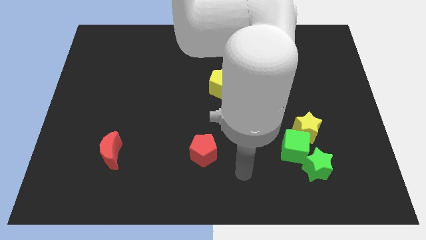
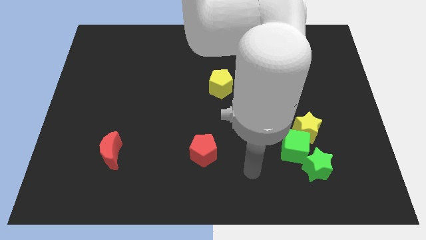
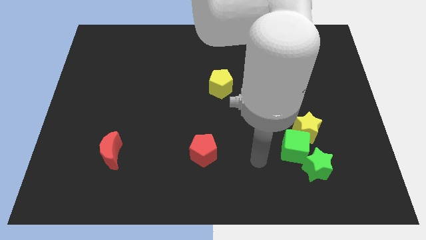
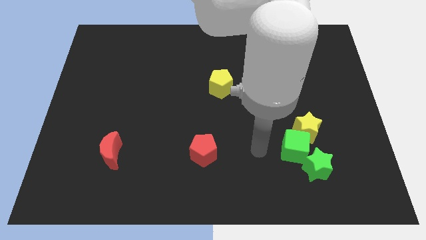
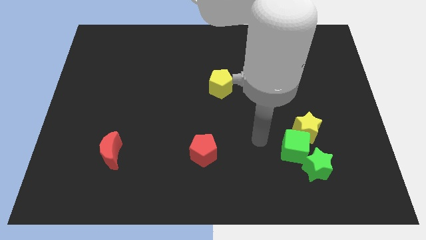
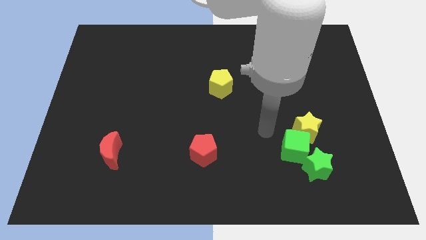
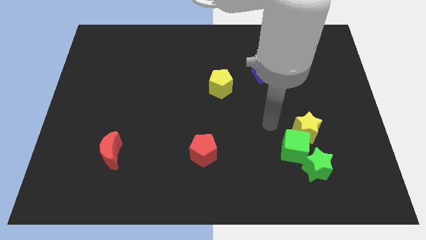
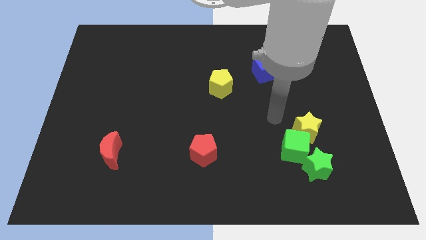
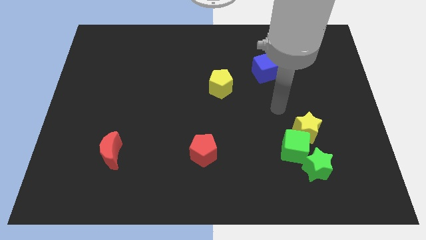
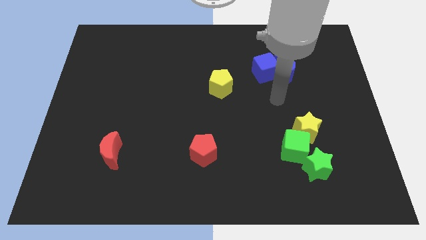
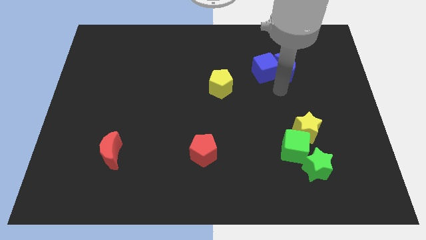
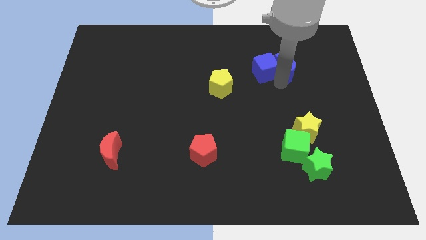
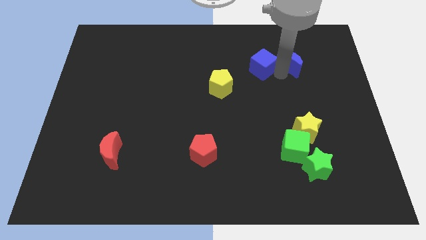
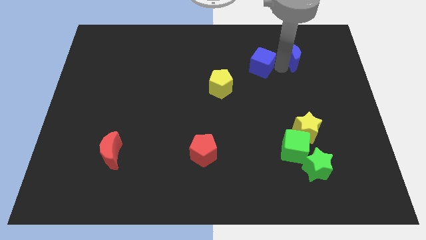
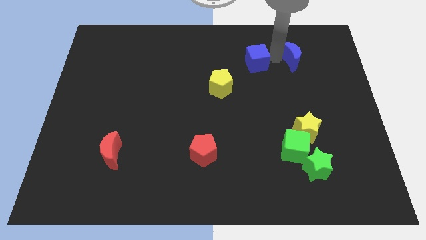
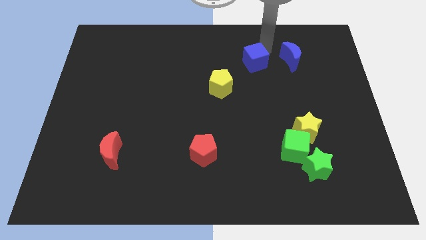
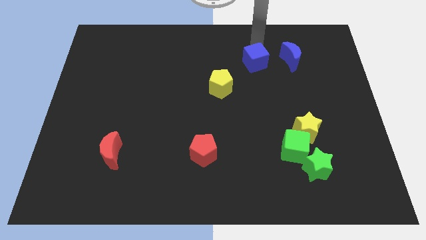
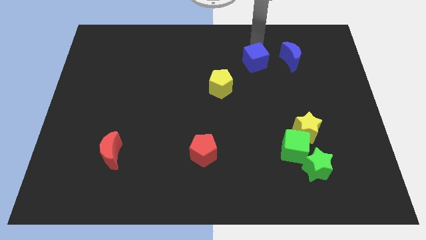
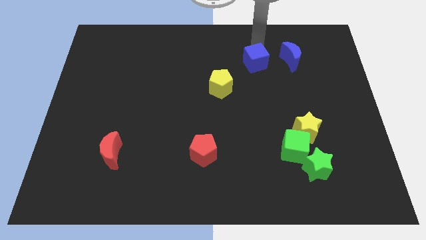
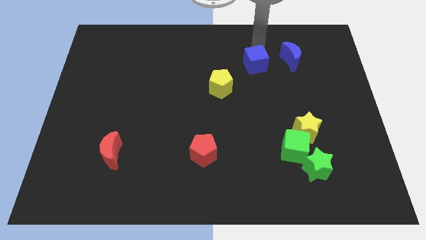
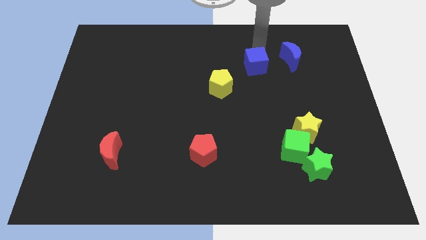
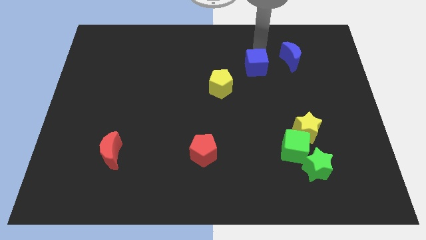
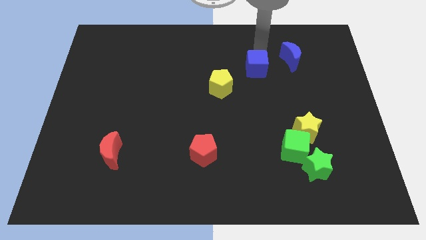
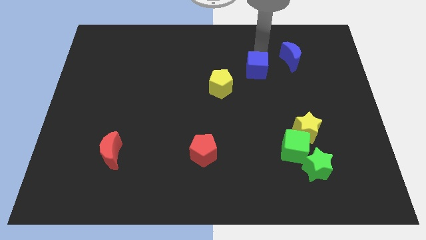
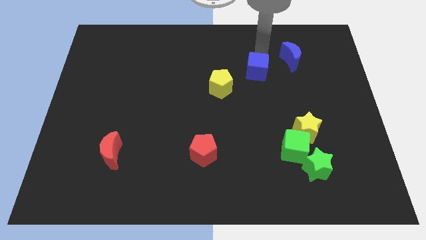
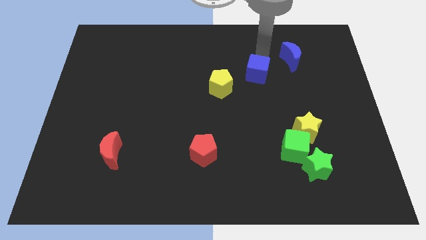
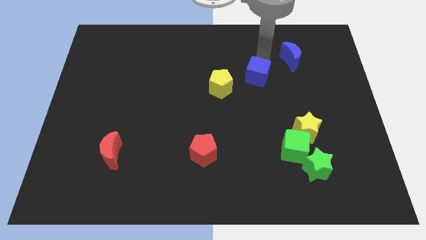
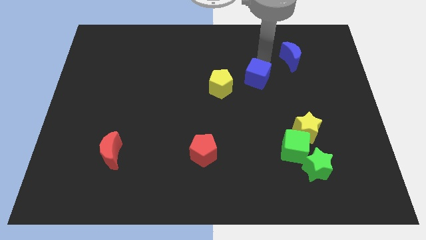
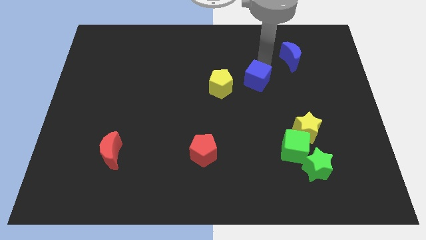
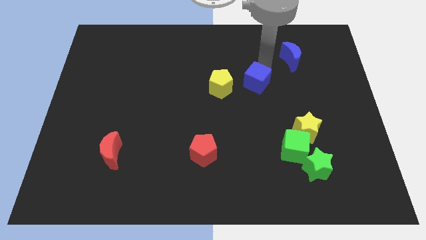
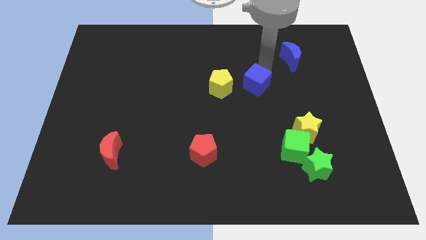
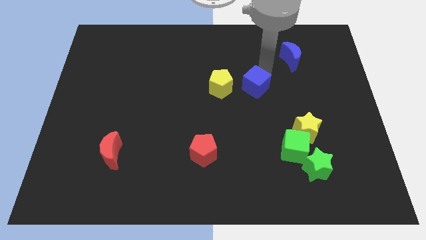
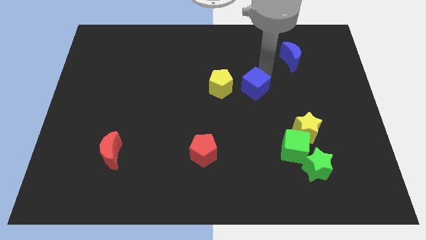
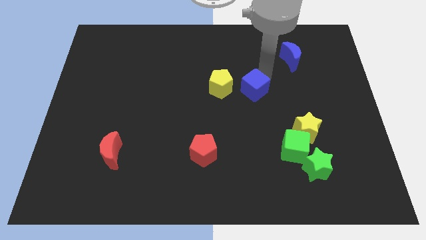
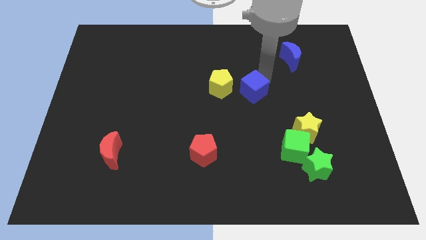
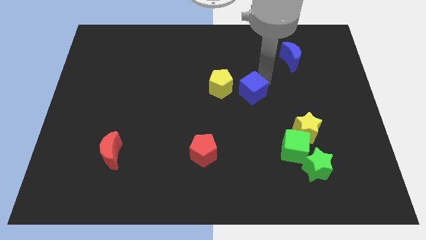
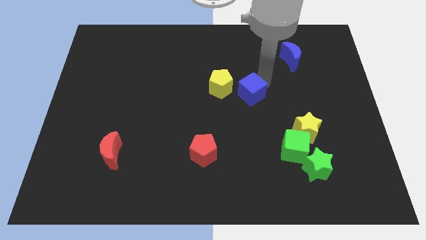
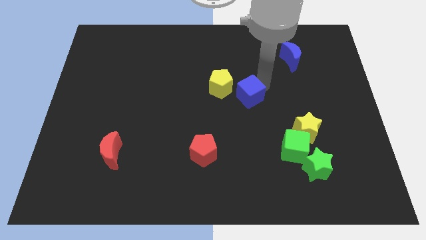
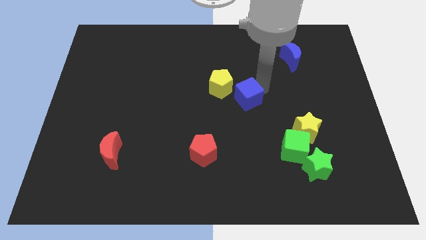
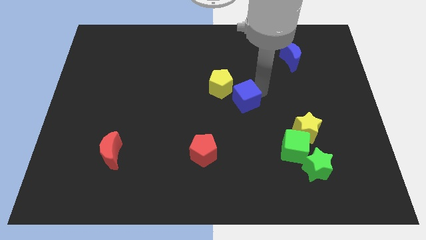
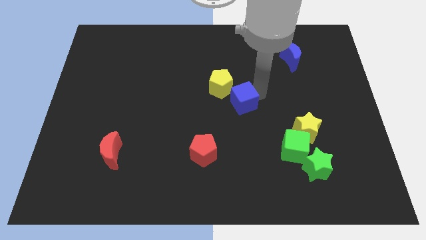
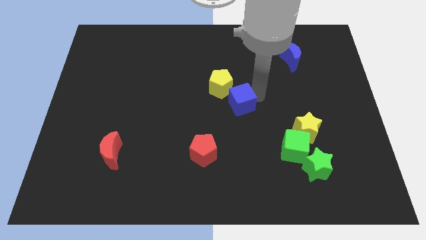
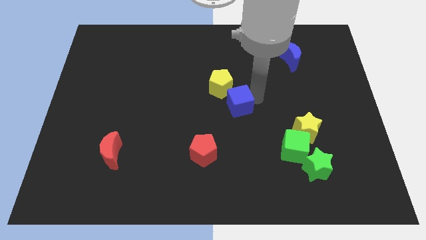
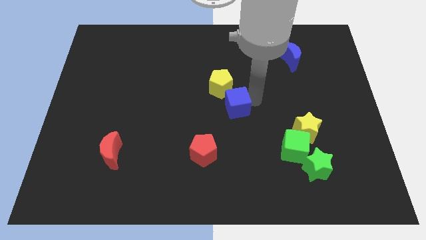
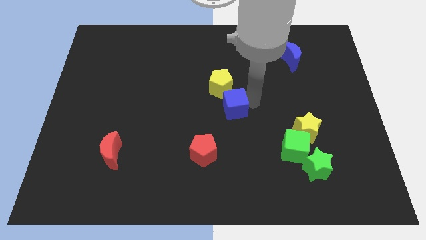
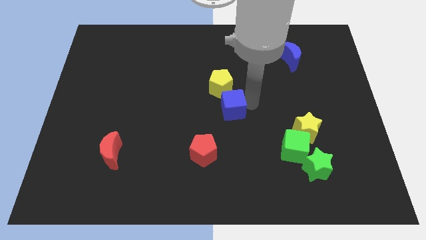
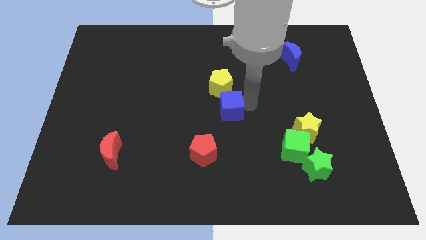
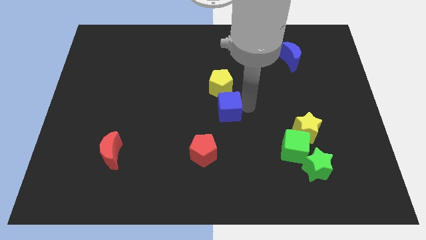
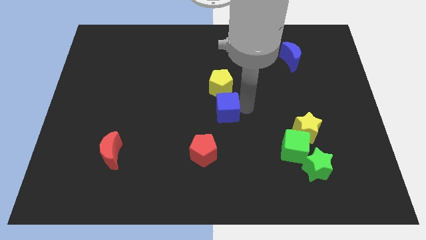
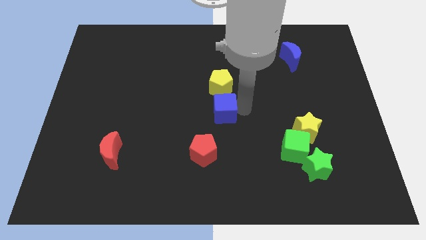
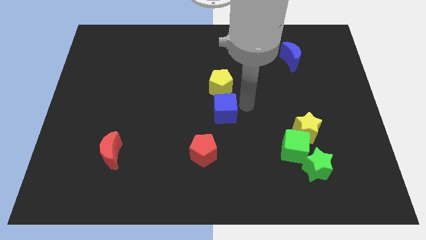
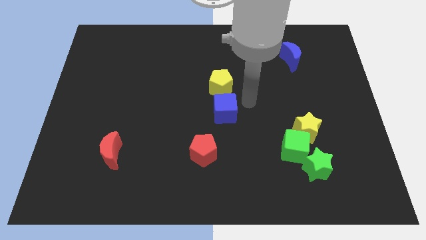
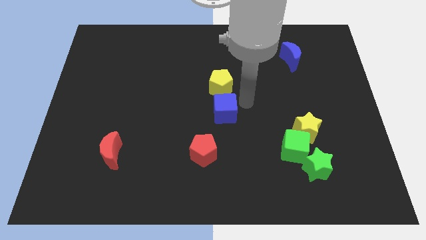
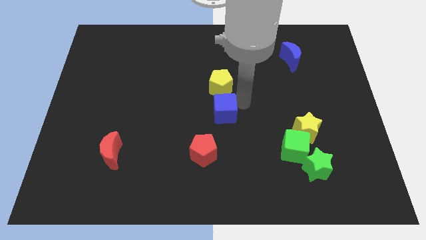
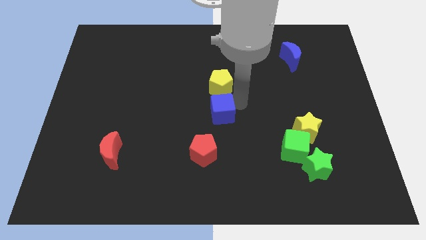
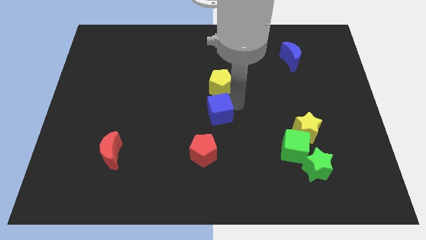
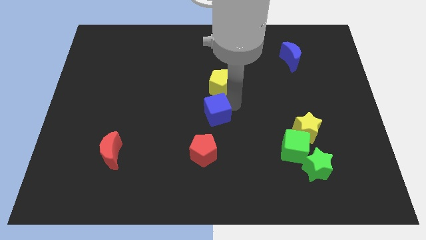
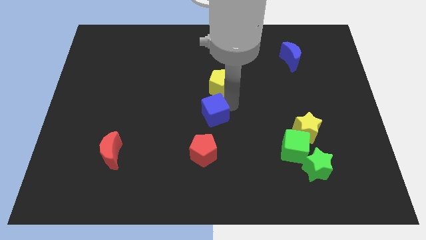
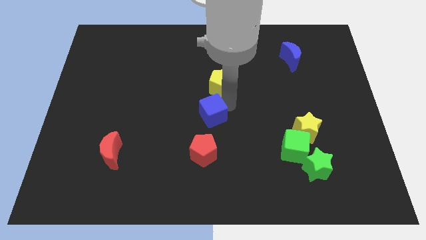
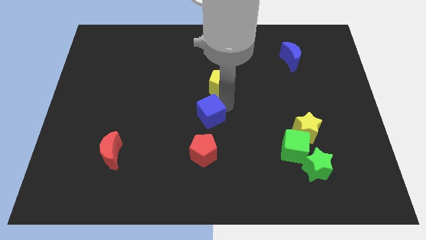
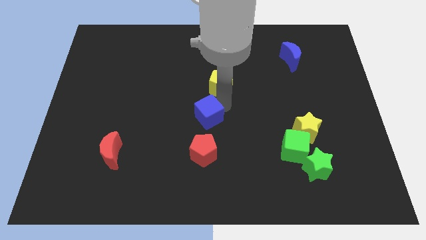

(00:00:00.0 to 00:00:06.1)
slide the blue cube down and then to the left

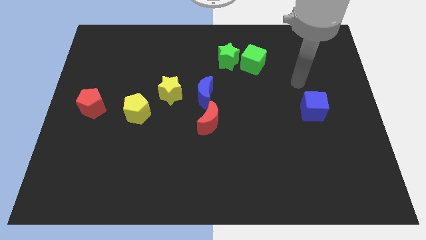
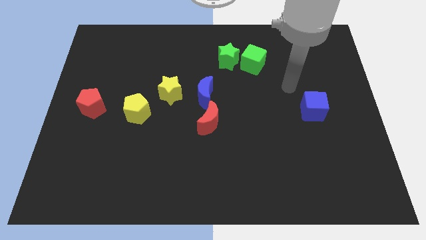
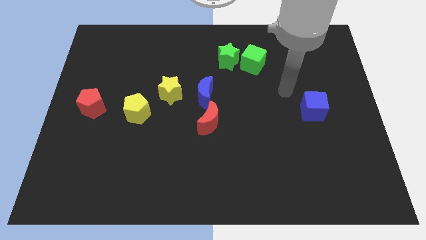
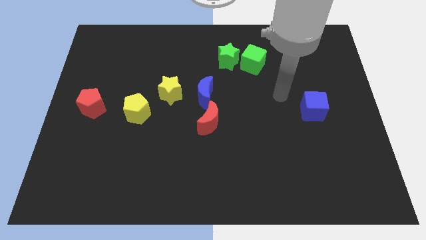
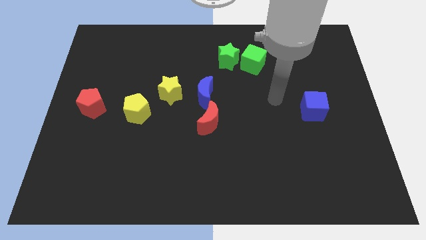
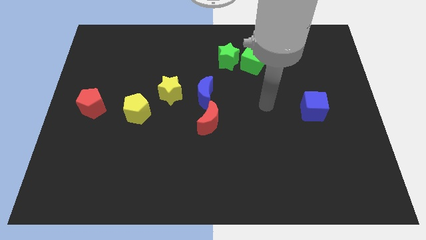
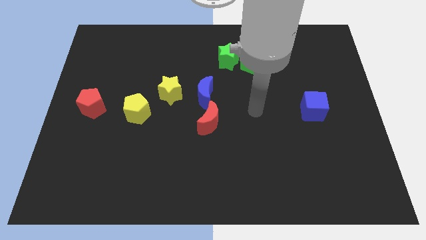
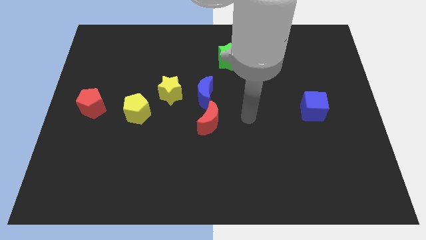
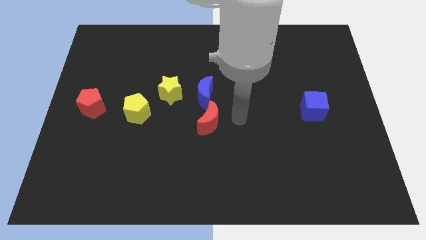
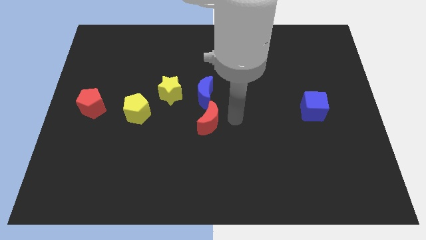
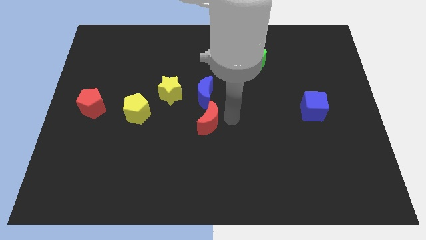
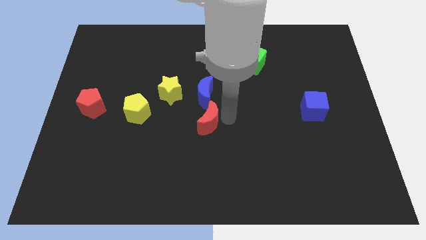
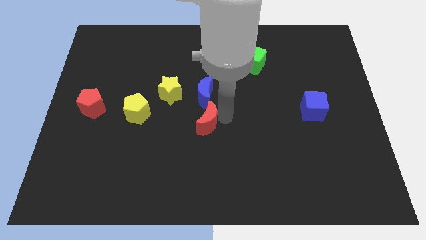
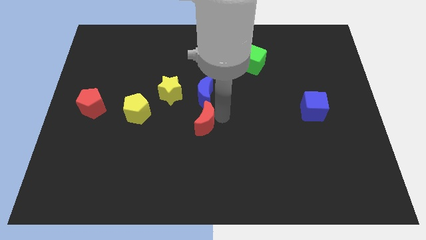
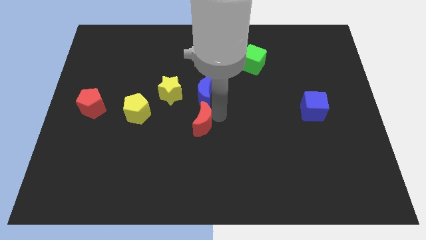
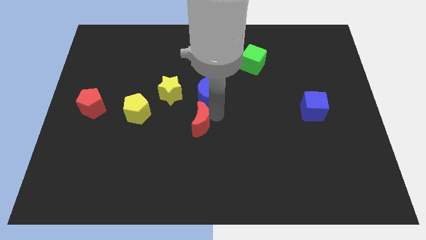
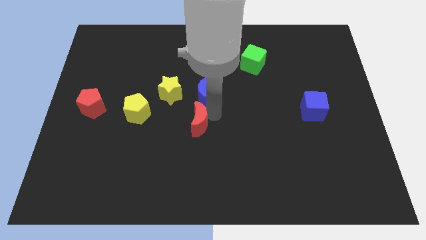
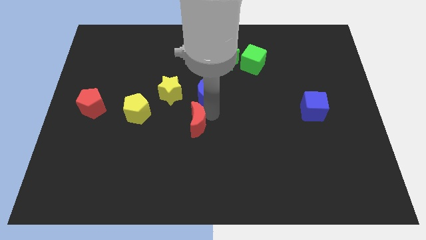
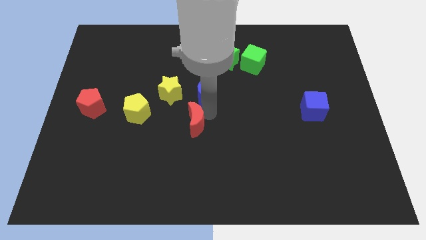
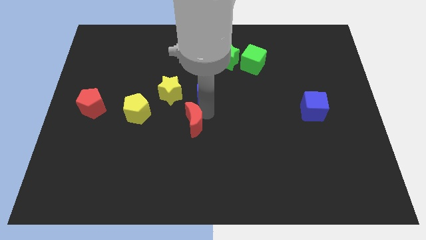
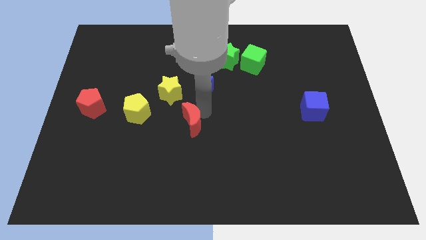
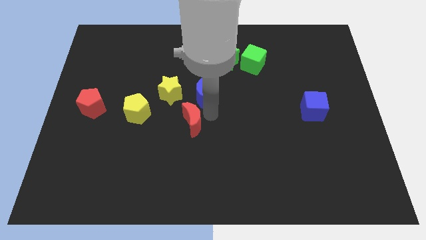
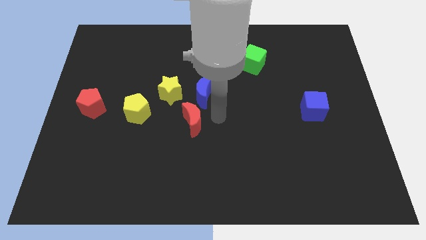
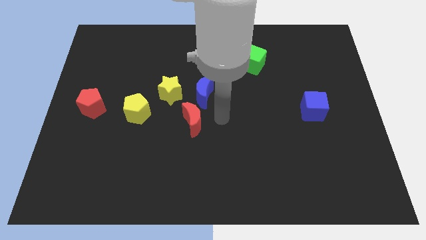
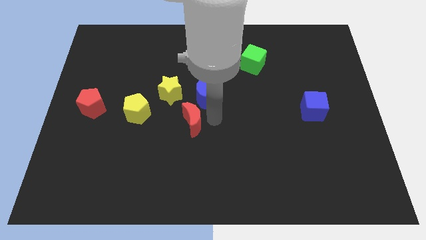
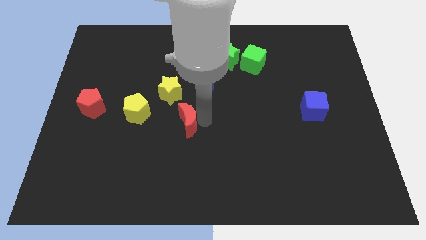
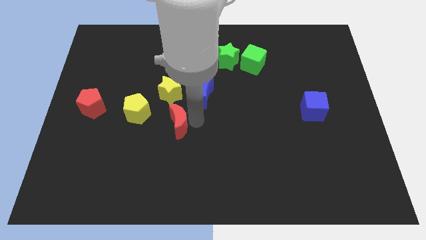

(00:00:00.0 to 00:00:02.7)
push the red moon a bit left
